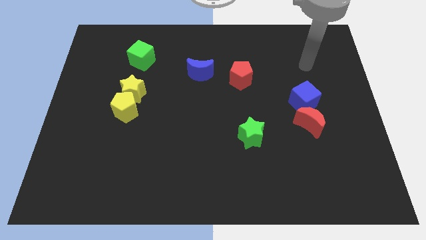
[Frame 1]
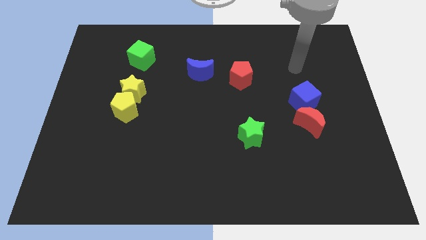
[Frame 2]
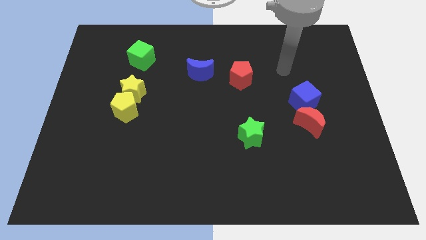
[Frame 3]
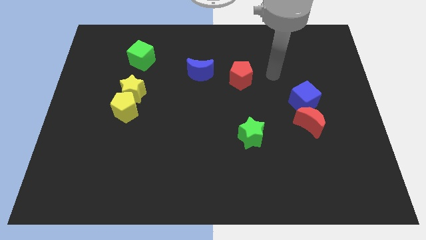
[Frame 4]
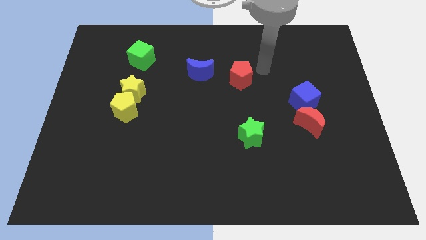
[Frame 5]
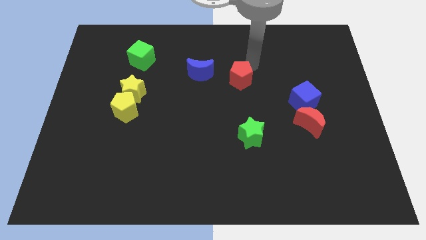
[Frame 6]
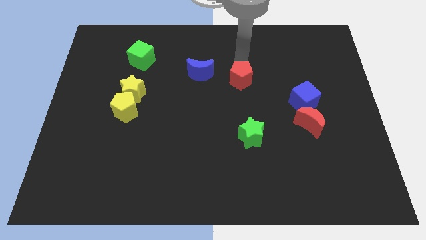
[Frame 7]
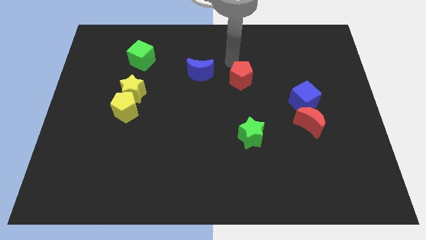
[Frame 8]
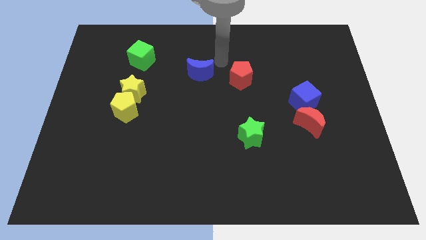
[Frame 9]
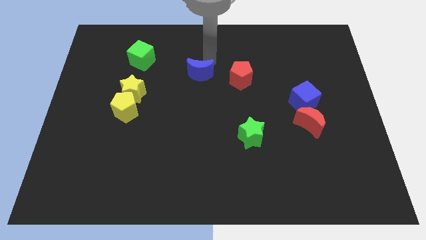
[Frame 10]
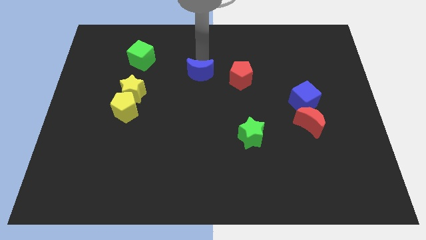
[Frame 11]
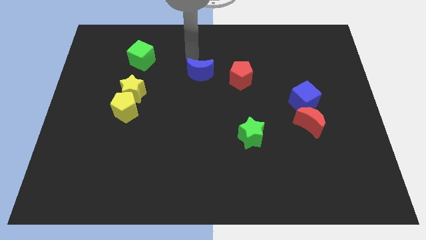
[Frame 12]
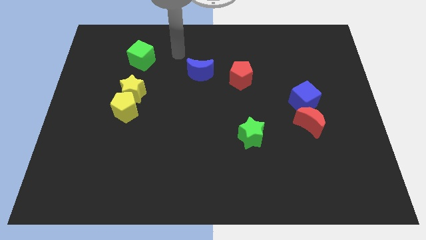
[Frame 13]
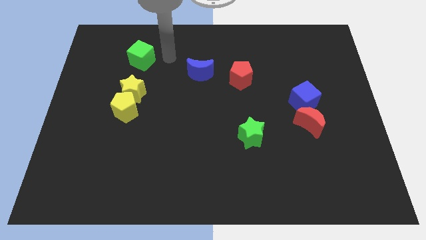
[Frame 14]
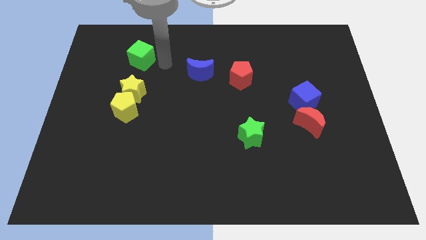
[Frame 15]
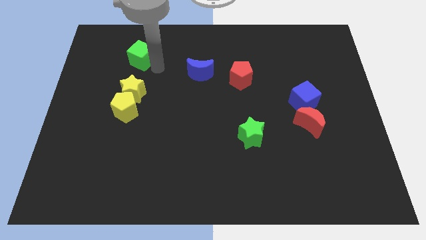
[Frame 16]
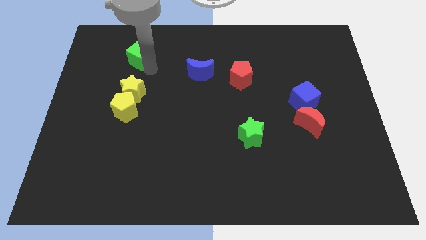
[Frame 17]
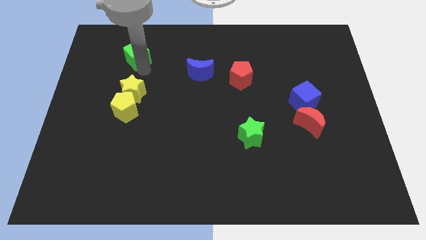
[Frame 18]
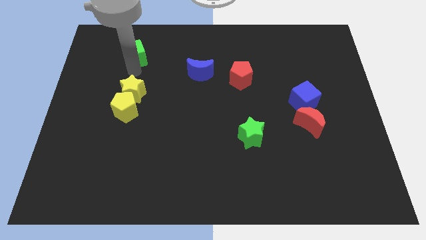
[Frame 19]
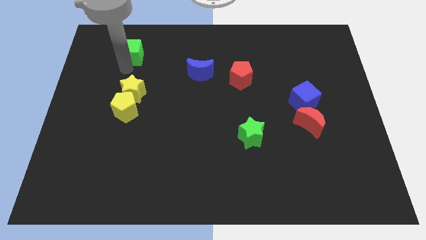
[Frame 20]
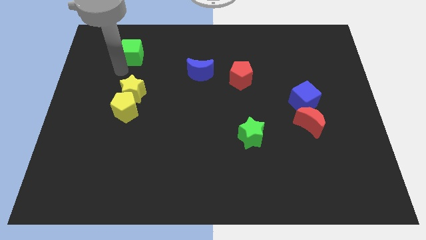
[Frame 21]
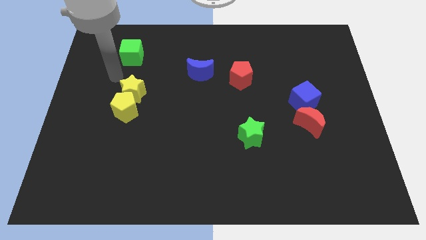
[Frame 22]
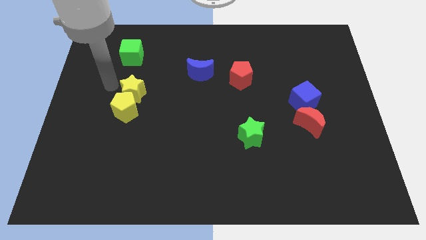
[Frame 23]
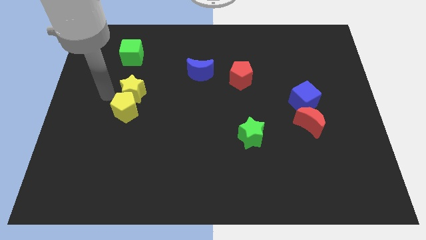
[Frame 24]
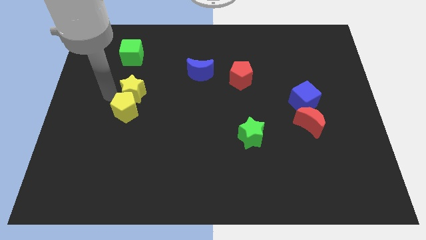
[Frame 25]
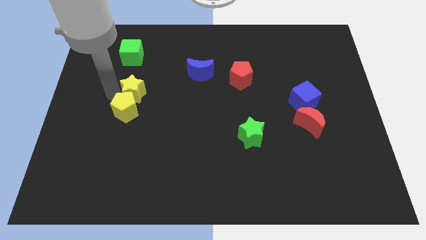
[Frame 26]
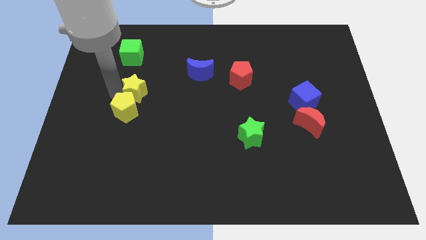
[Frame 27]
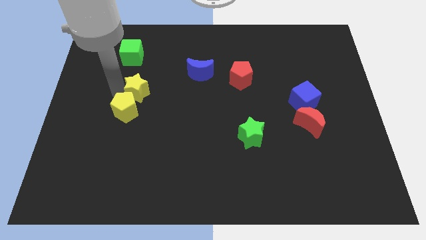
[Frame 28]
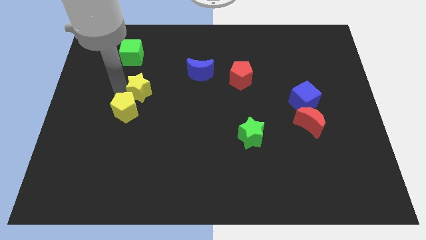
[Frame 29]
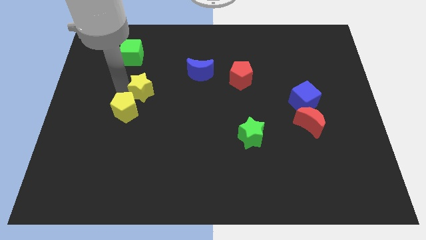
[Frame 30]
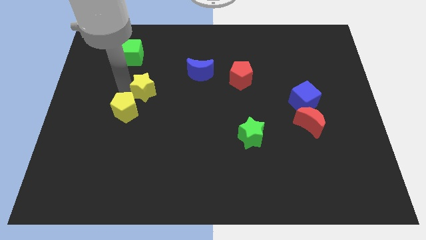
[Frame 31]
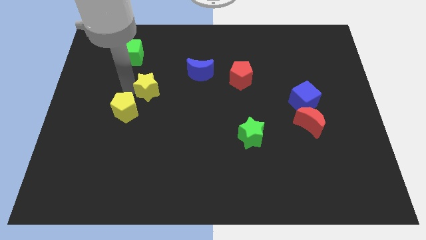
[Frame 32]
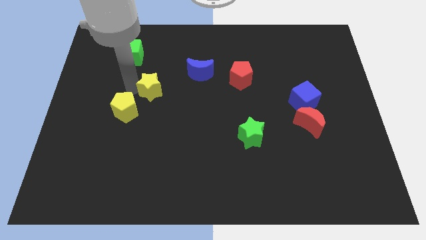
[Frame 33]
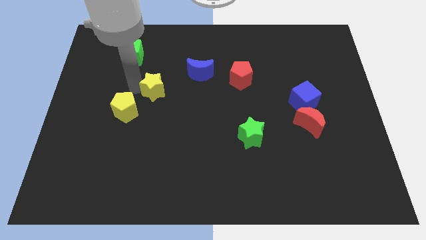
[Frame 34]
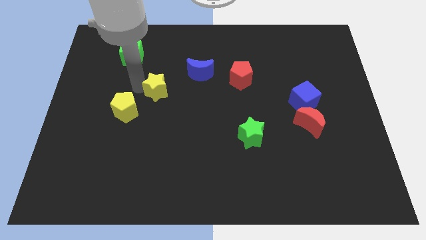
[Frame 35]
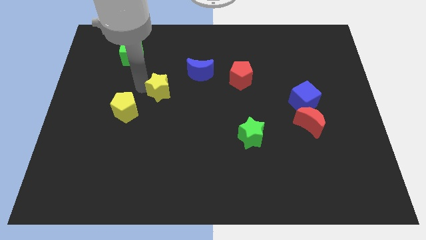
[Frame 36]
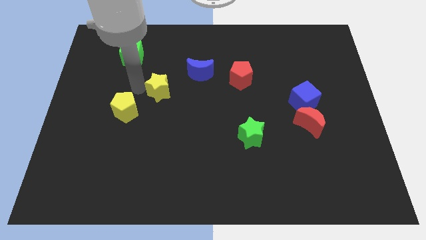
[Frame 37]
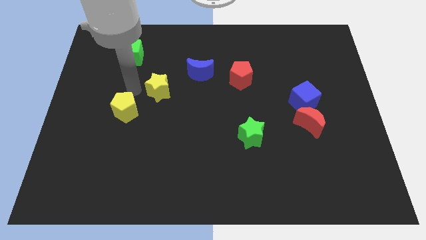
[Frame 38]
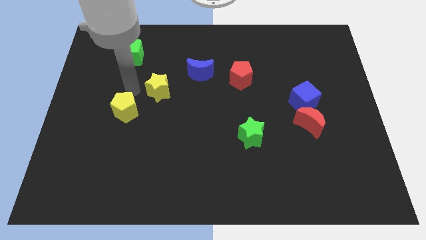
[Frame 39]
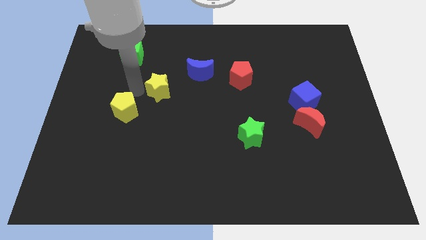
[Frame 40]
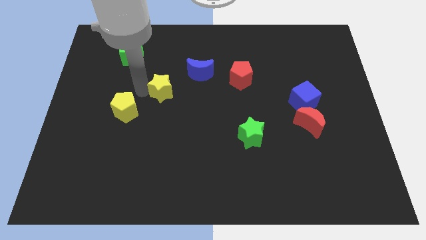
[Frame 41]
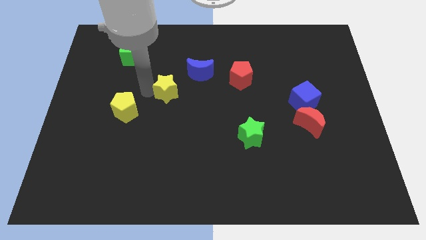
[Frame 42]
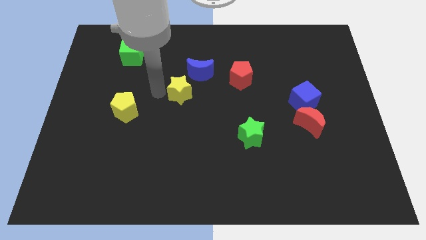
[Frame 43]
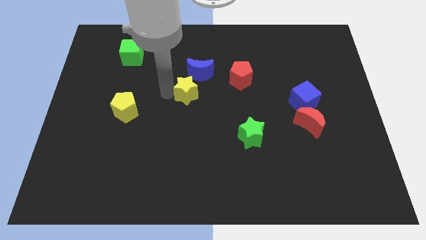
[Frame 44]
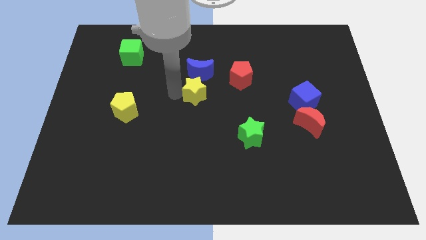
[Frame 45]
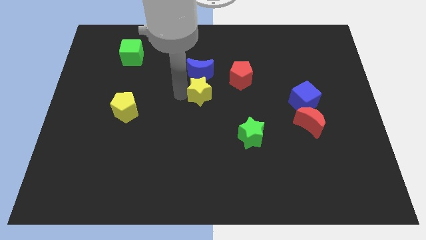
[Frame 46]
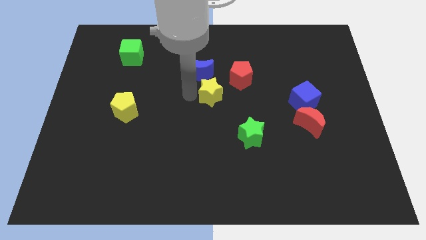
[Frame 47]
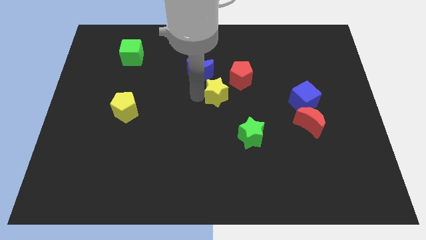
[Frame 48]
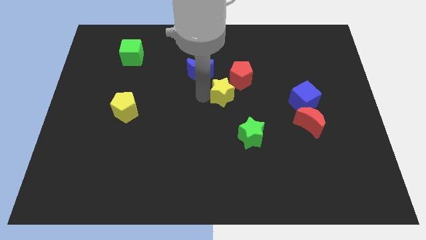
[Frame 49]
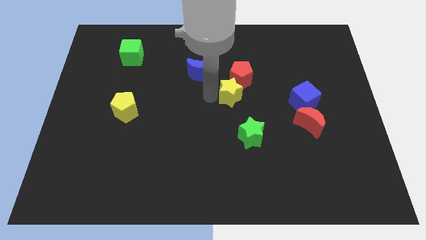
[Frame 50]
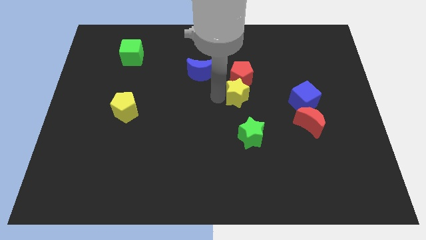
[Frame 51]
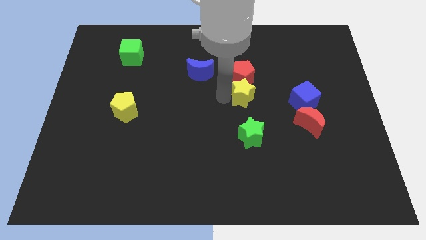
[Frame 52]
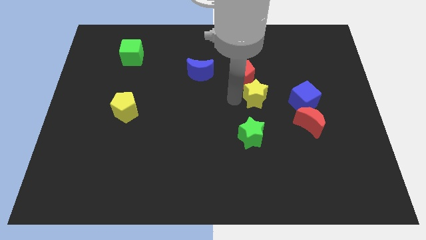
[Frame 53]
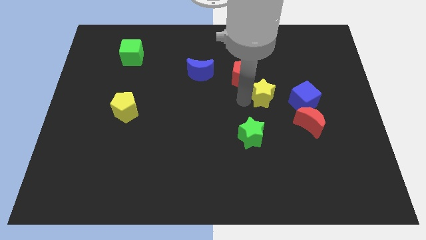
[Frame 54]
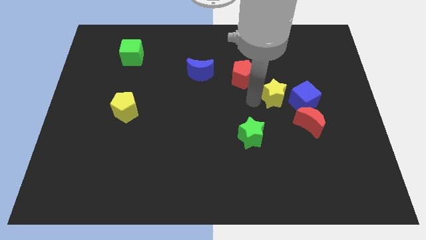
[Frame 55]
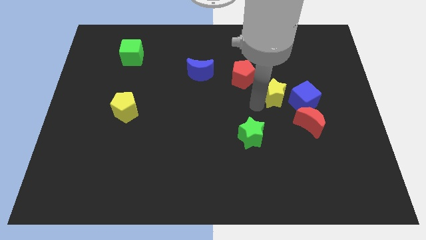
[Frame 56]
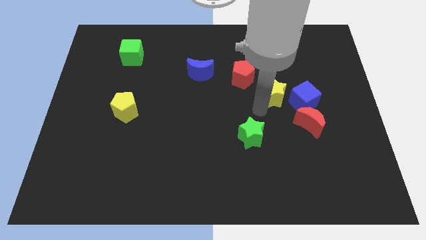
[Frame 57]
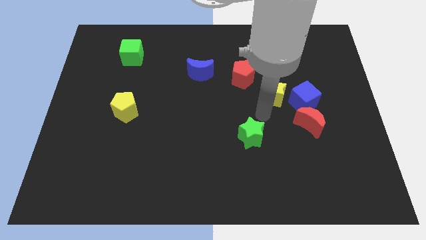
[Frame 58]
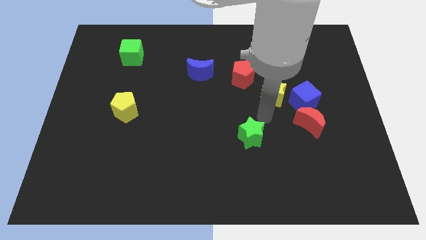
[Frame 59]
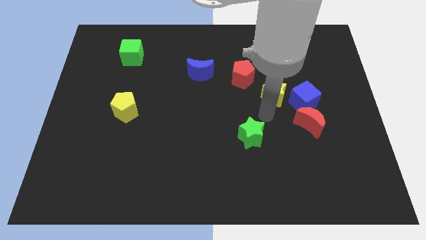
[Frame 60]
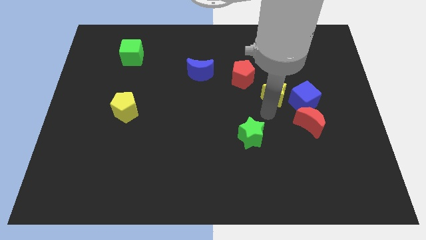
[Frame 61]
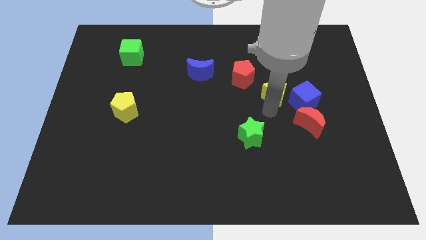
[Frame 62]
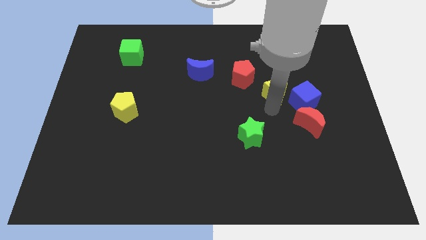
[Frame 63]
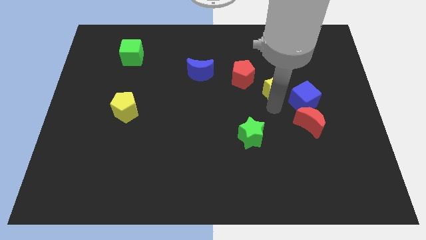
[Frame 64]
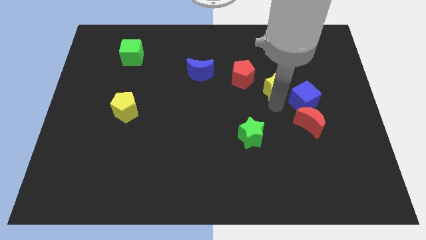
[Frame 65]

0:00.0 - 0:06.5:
put the yellow star right of the red pentagon
